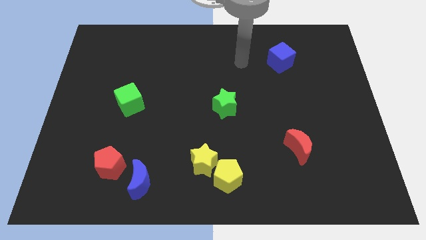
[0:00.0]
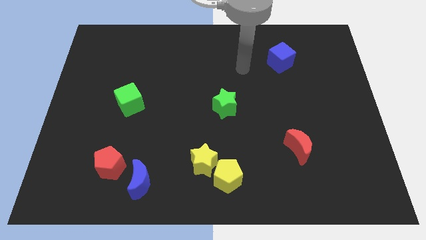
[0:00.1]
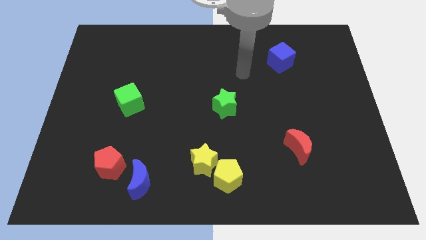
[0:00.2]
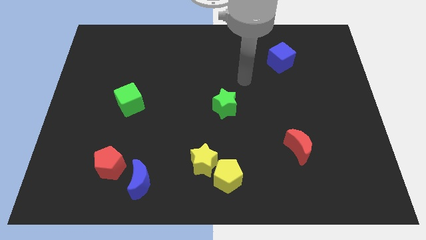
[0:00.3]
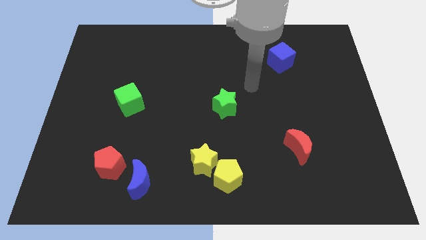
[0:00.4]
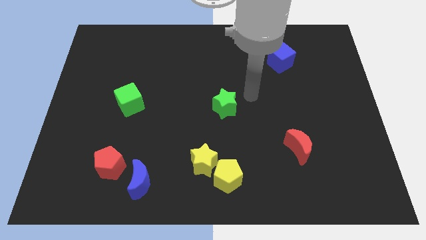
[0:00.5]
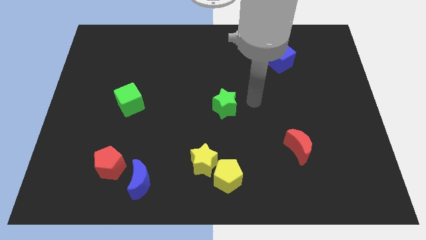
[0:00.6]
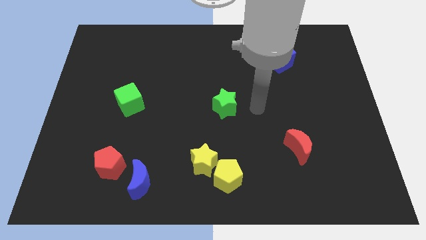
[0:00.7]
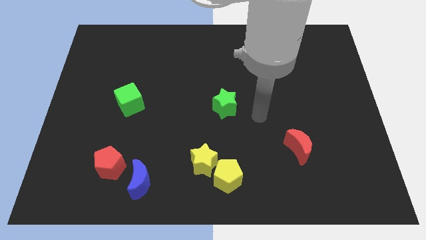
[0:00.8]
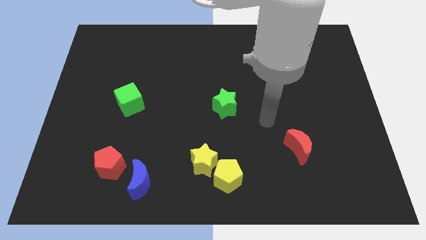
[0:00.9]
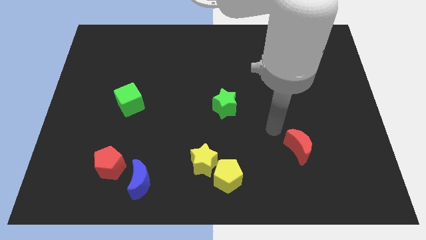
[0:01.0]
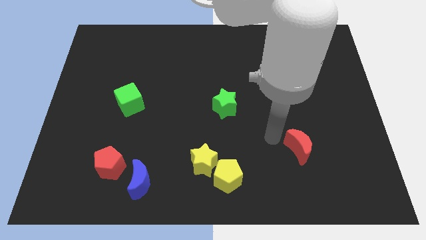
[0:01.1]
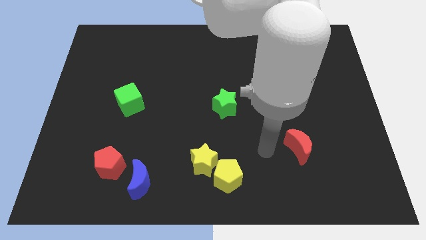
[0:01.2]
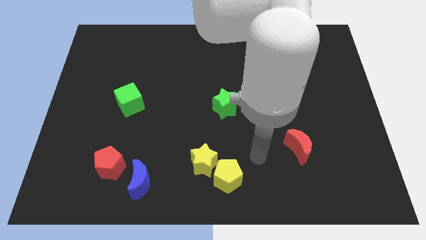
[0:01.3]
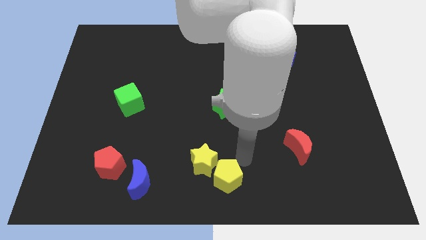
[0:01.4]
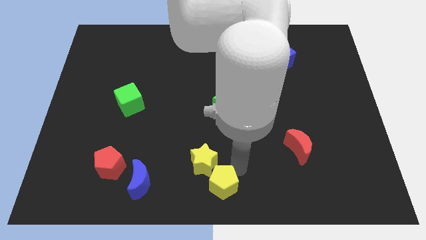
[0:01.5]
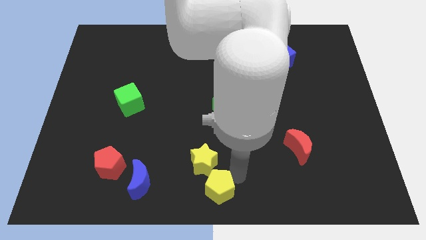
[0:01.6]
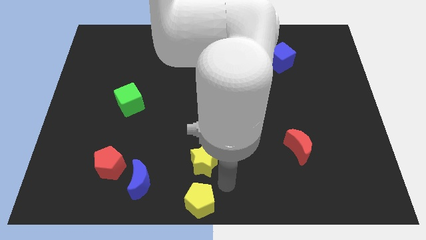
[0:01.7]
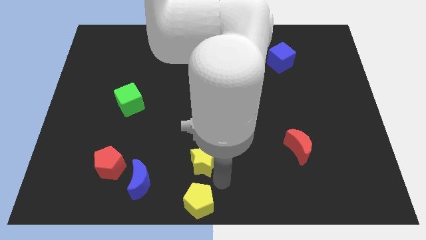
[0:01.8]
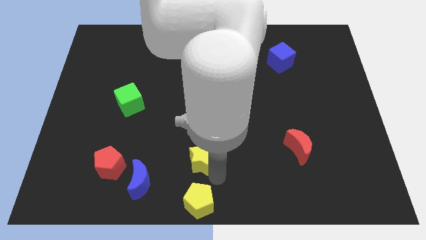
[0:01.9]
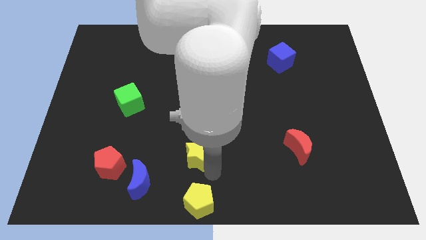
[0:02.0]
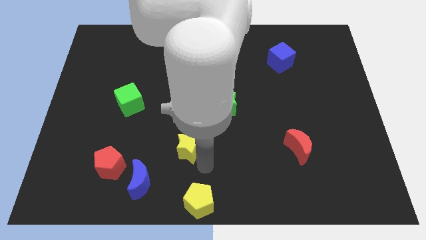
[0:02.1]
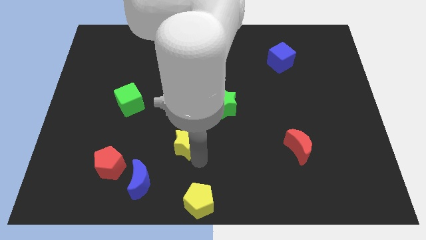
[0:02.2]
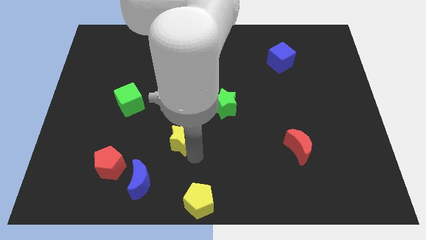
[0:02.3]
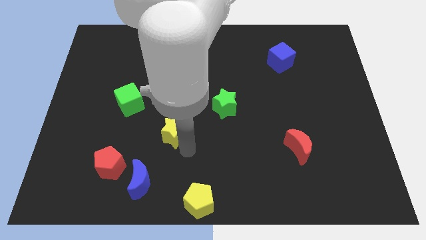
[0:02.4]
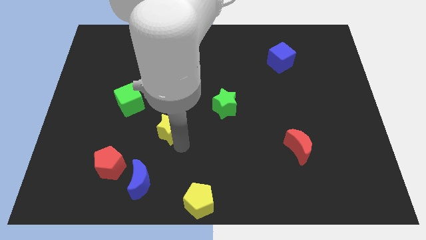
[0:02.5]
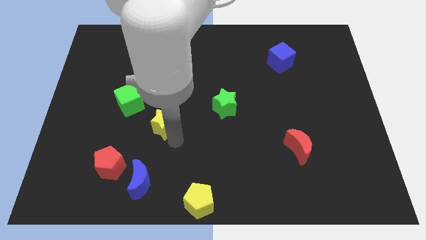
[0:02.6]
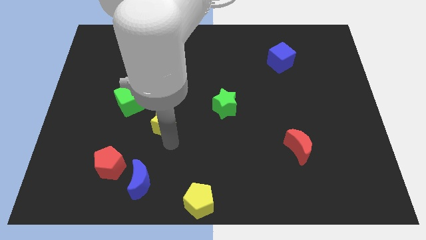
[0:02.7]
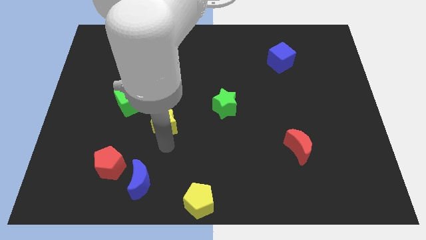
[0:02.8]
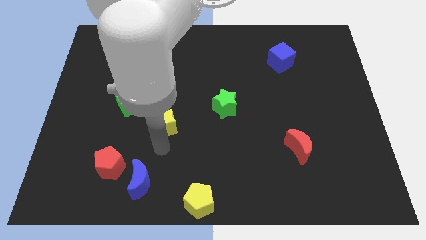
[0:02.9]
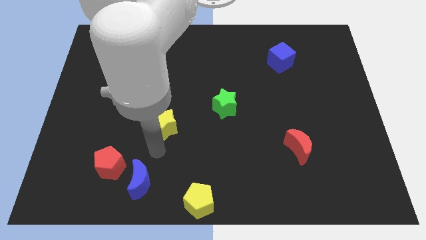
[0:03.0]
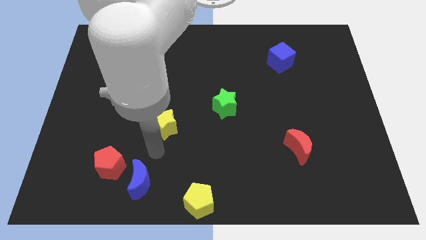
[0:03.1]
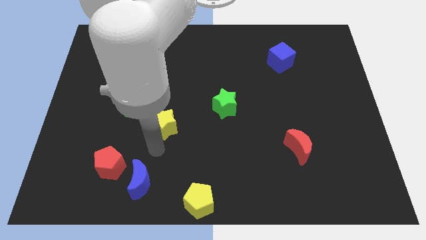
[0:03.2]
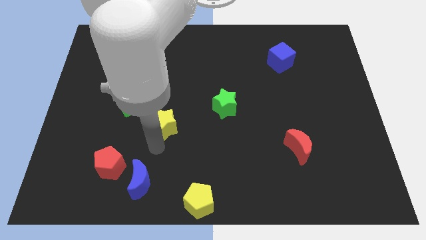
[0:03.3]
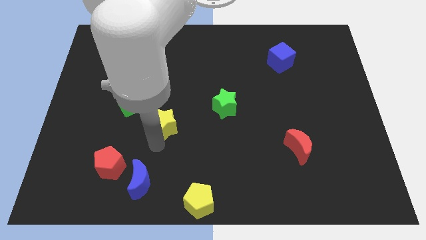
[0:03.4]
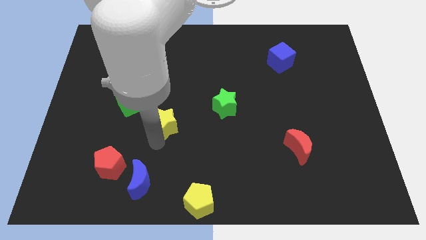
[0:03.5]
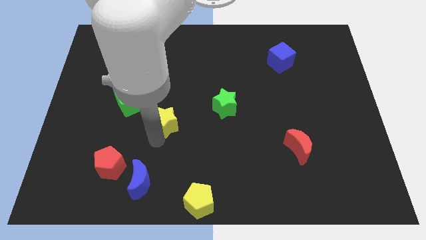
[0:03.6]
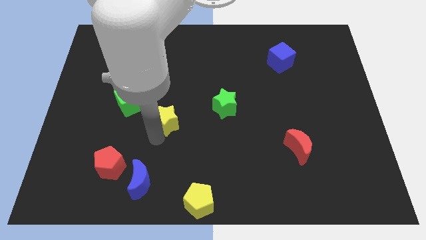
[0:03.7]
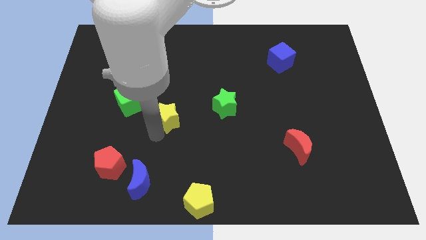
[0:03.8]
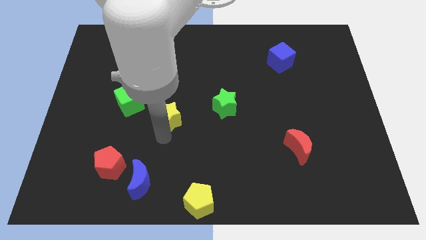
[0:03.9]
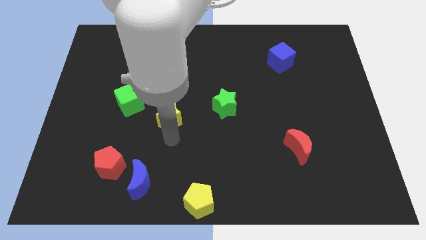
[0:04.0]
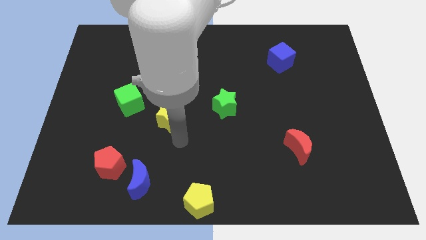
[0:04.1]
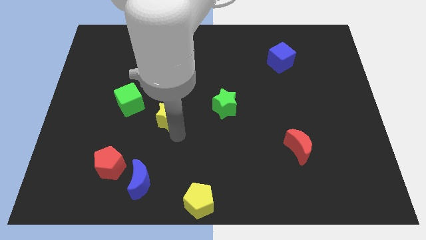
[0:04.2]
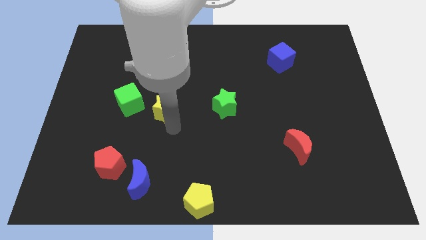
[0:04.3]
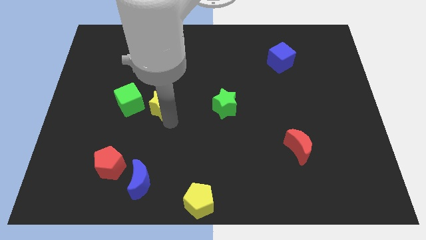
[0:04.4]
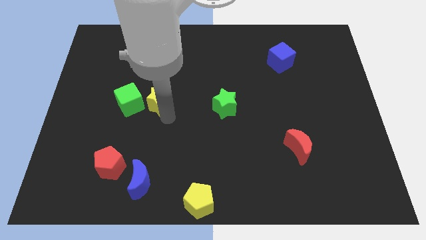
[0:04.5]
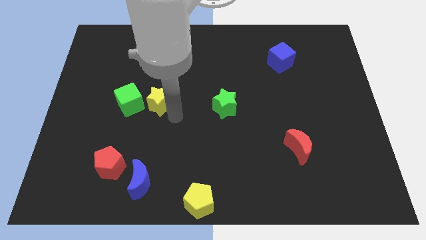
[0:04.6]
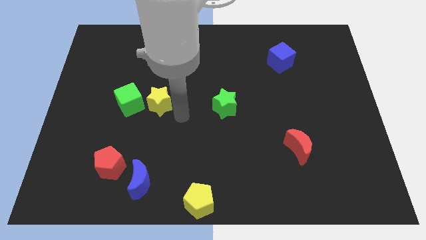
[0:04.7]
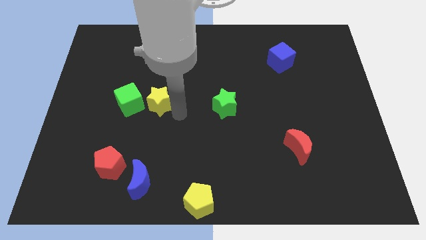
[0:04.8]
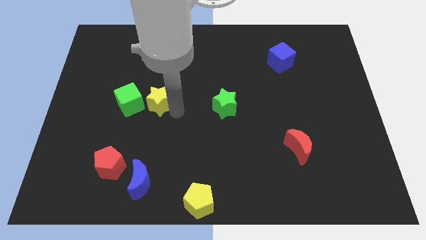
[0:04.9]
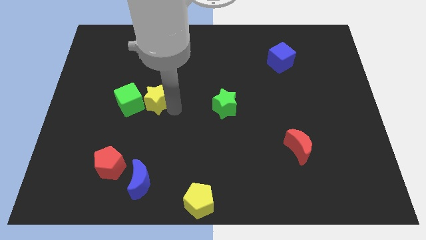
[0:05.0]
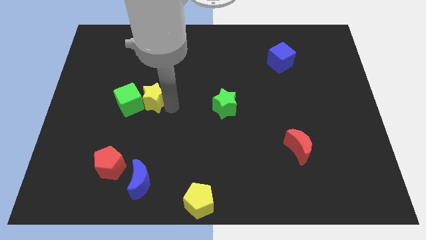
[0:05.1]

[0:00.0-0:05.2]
move the yellow star upwards and left diagonally

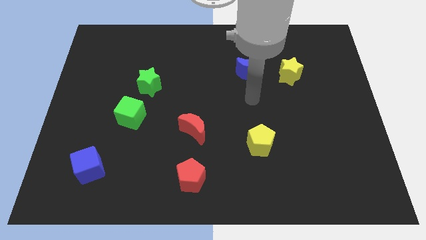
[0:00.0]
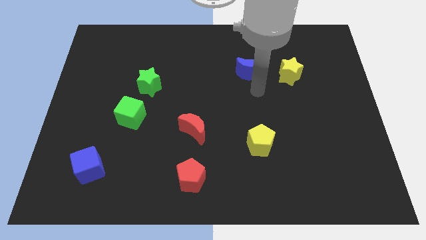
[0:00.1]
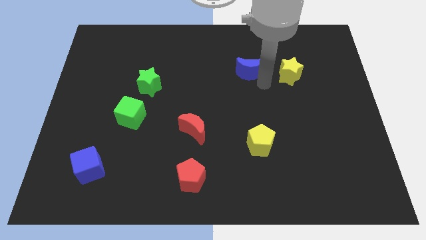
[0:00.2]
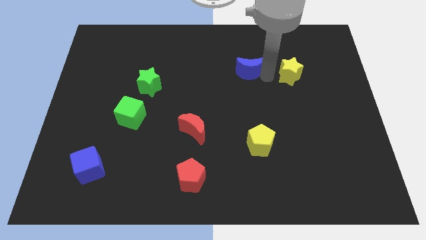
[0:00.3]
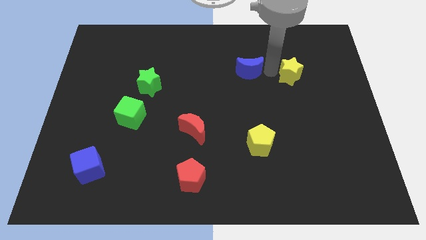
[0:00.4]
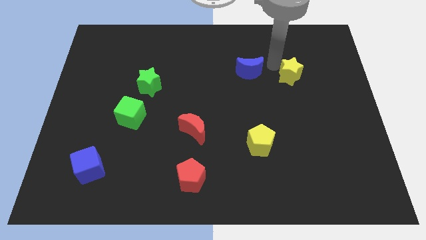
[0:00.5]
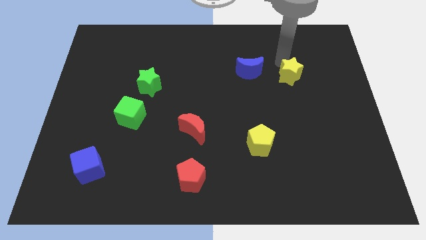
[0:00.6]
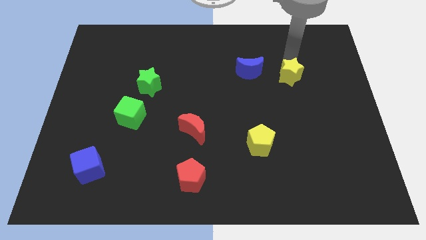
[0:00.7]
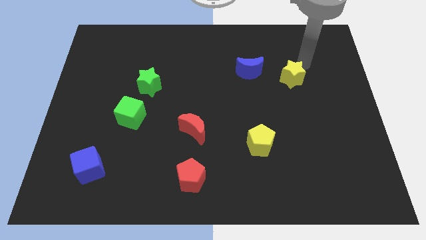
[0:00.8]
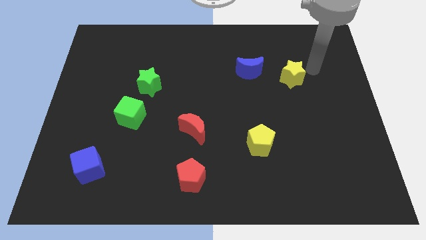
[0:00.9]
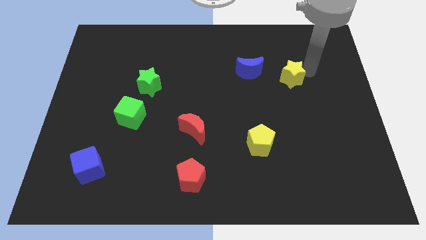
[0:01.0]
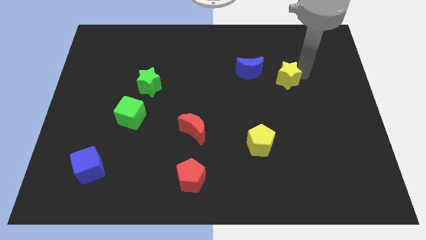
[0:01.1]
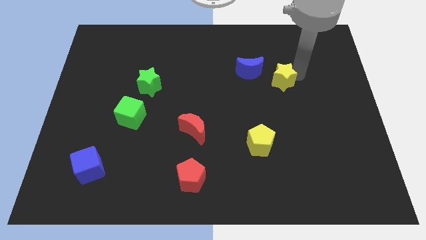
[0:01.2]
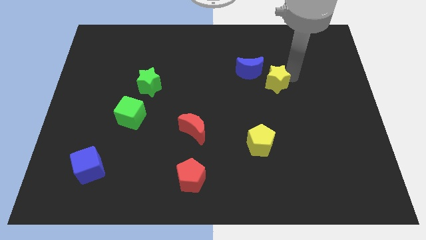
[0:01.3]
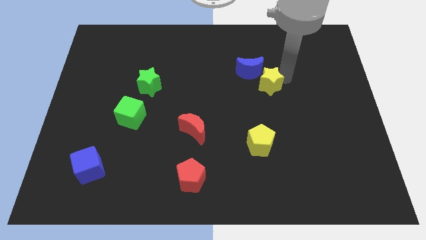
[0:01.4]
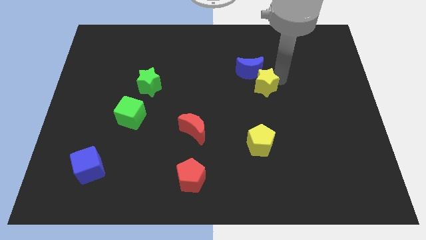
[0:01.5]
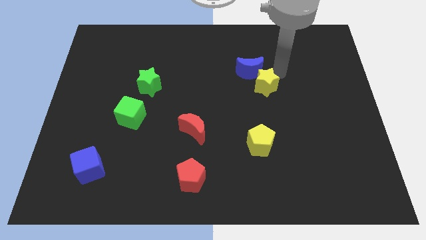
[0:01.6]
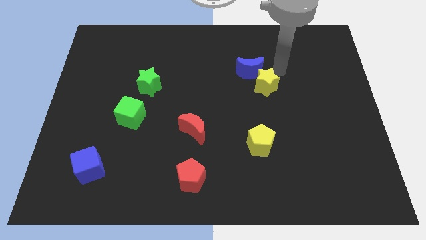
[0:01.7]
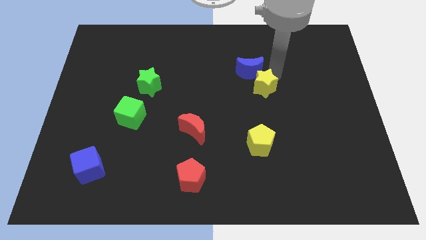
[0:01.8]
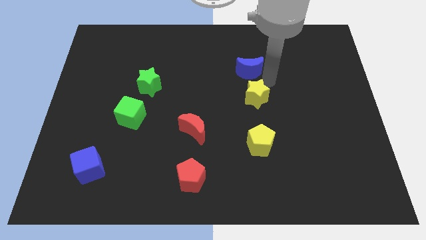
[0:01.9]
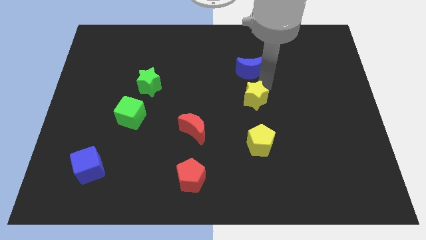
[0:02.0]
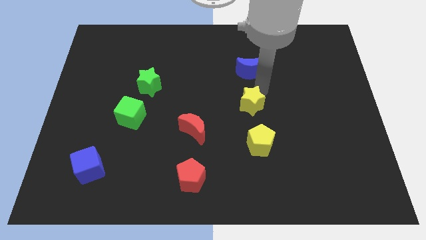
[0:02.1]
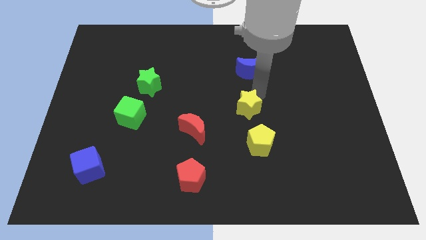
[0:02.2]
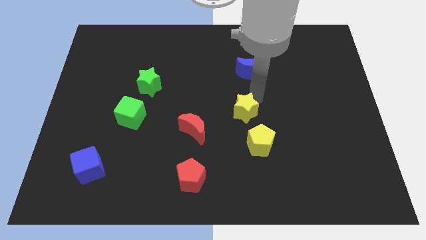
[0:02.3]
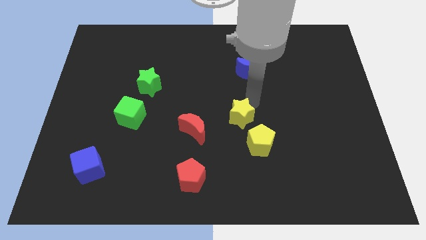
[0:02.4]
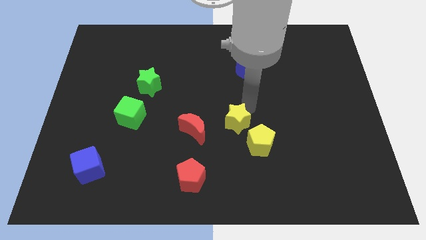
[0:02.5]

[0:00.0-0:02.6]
move the yellow star down and then to the left

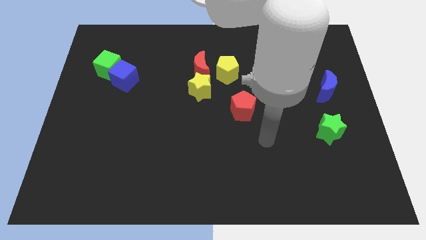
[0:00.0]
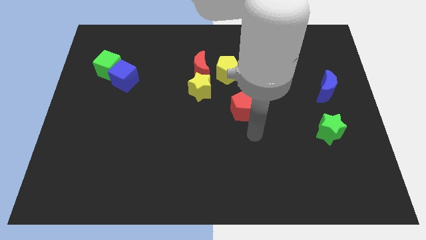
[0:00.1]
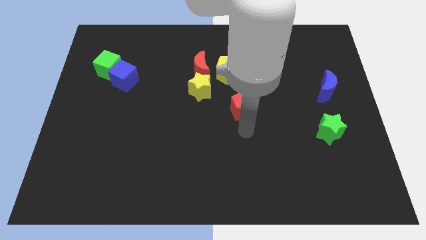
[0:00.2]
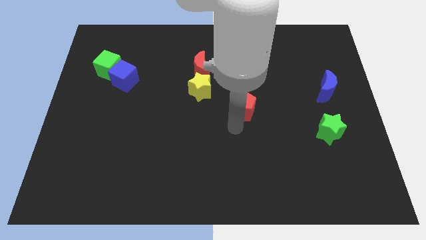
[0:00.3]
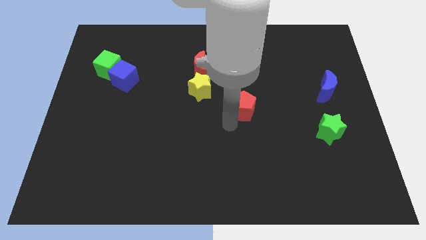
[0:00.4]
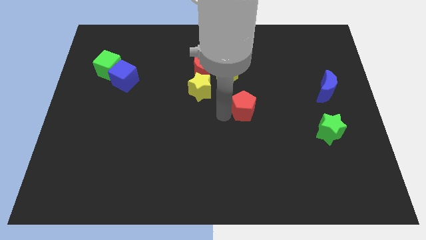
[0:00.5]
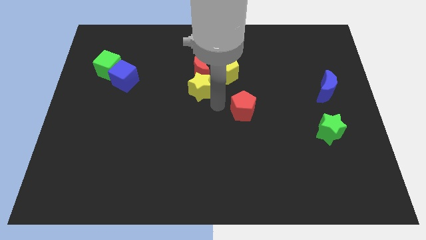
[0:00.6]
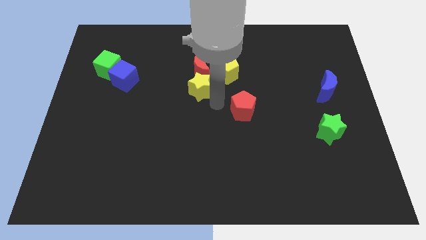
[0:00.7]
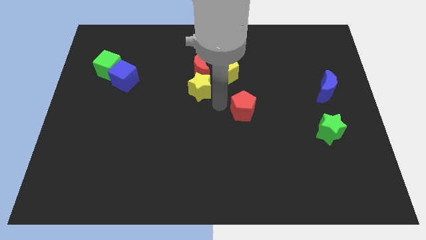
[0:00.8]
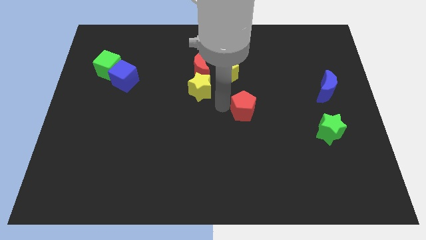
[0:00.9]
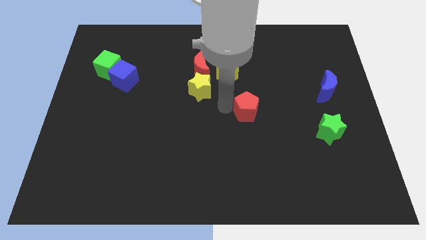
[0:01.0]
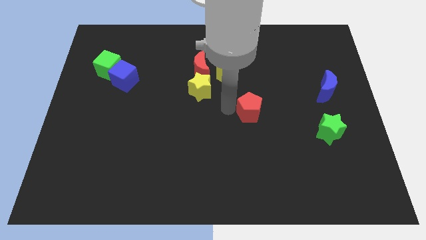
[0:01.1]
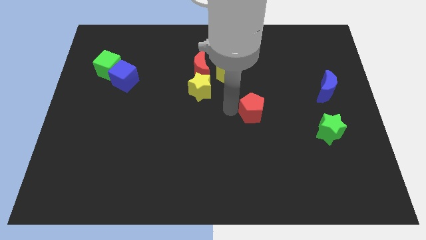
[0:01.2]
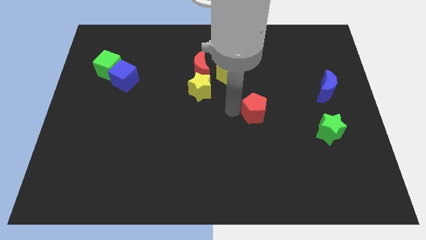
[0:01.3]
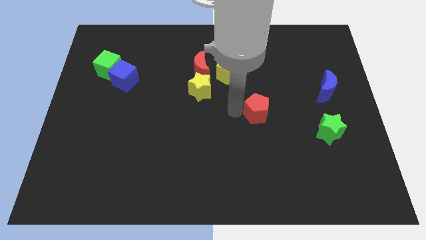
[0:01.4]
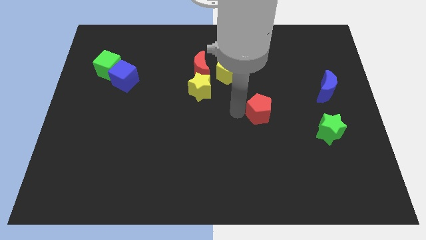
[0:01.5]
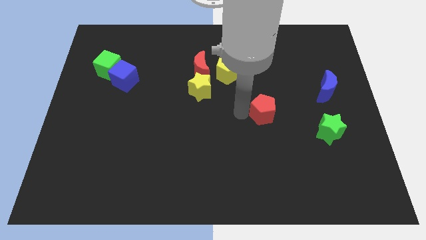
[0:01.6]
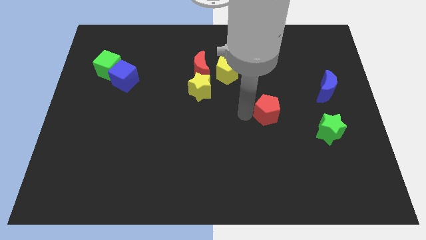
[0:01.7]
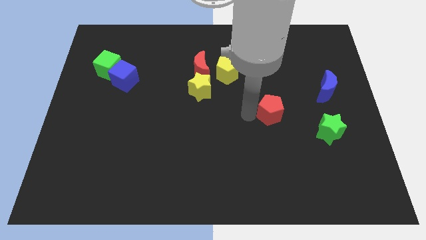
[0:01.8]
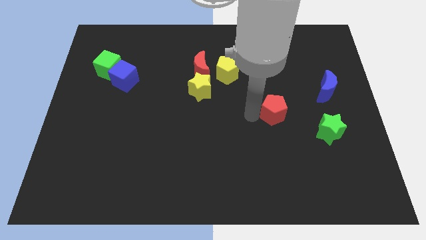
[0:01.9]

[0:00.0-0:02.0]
push the red pentagon a little to the right
